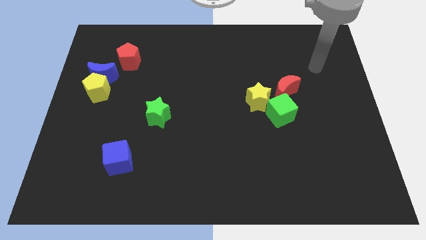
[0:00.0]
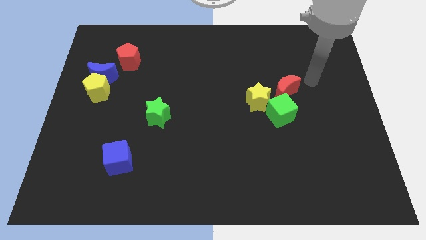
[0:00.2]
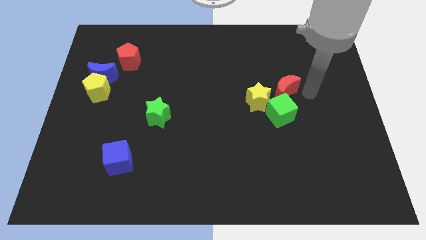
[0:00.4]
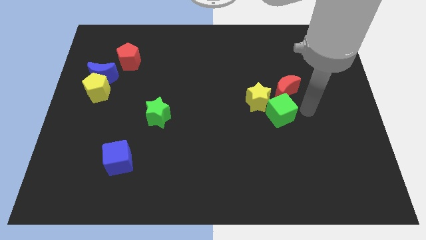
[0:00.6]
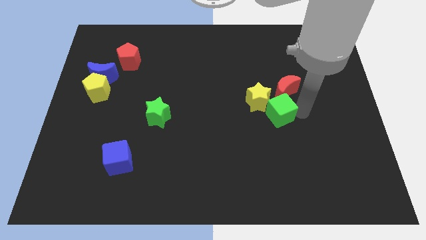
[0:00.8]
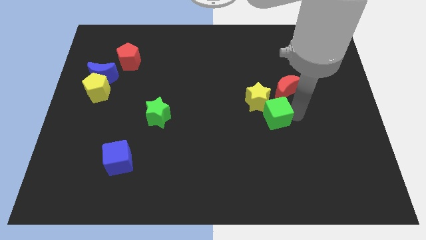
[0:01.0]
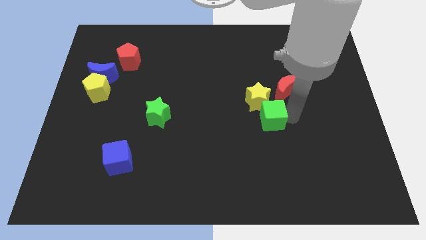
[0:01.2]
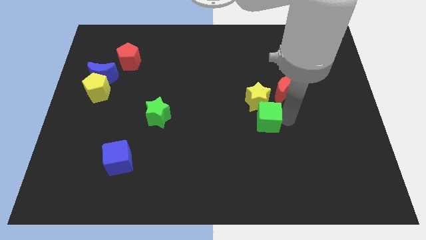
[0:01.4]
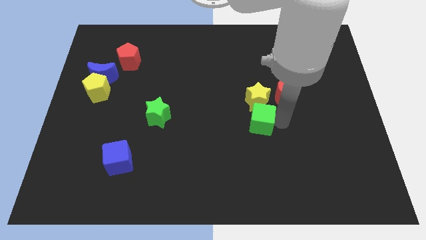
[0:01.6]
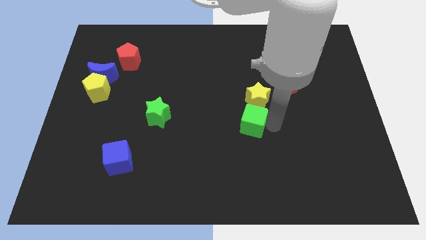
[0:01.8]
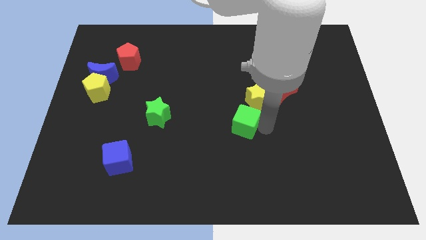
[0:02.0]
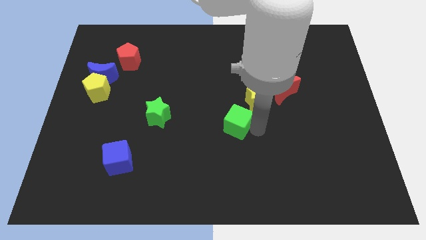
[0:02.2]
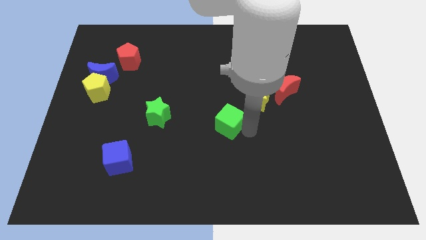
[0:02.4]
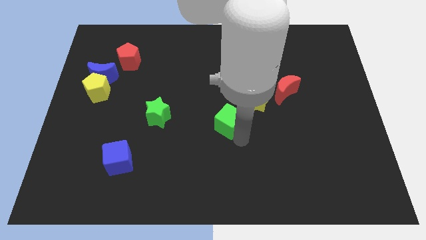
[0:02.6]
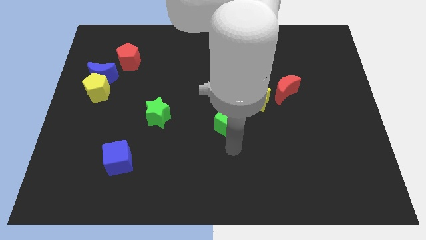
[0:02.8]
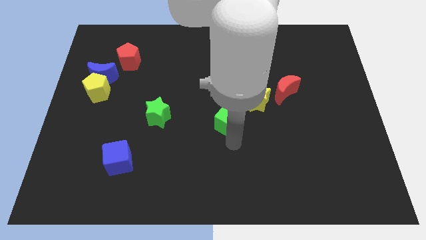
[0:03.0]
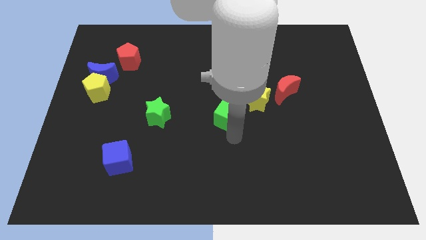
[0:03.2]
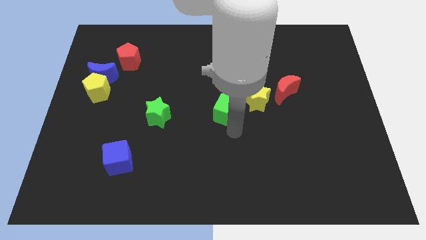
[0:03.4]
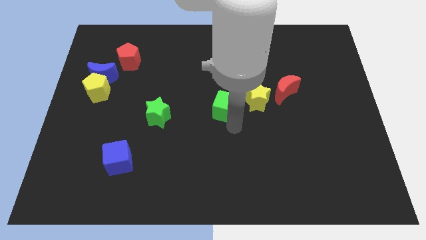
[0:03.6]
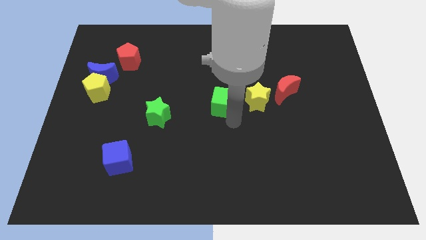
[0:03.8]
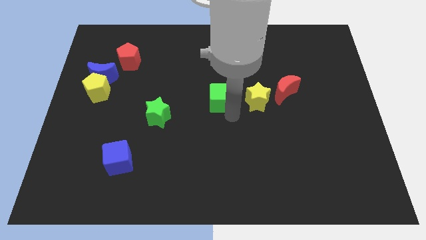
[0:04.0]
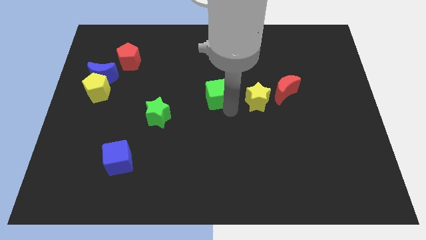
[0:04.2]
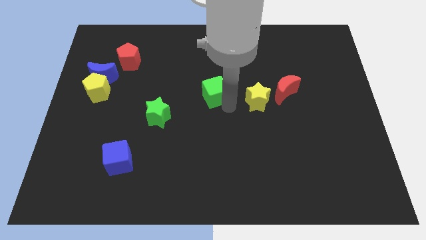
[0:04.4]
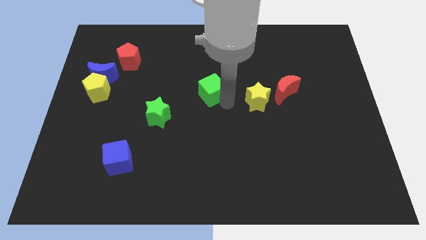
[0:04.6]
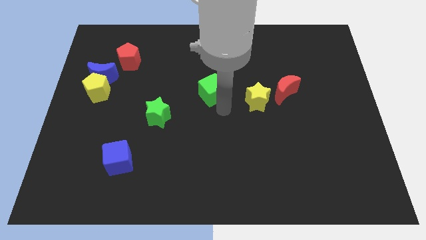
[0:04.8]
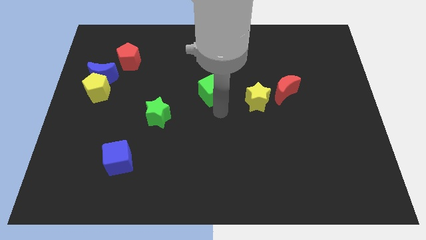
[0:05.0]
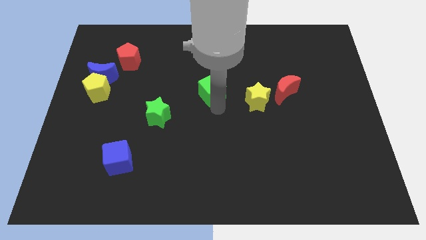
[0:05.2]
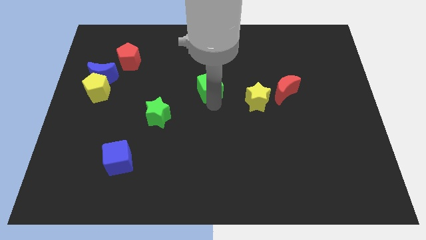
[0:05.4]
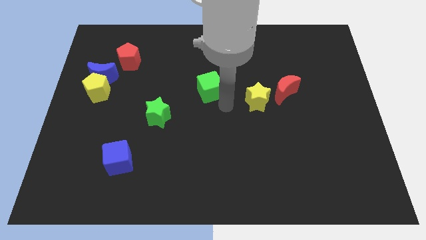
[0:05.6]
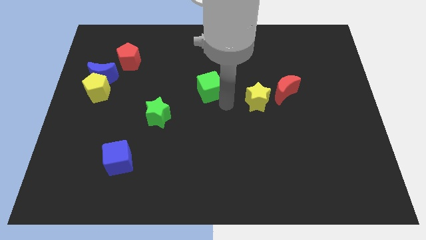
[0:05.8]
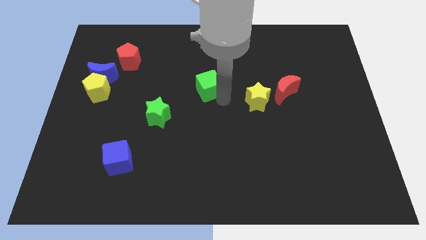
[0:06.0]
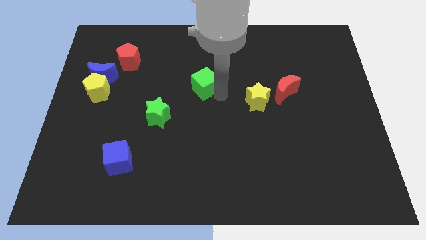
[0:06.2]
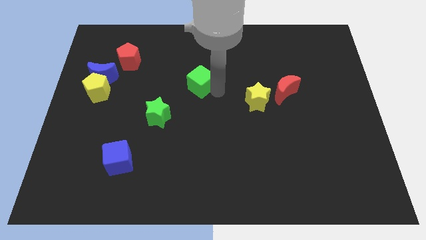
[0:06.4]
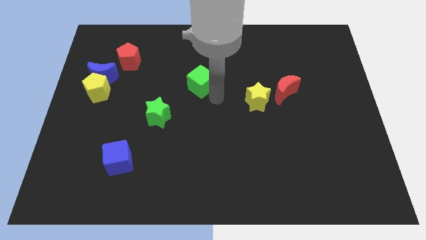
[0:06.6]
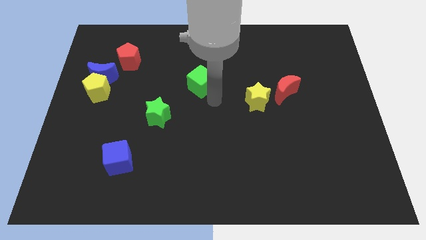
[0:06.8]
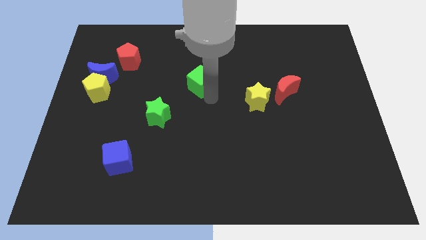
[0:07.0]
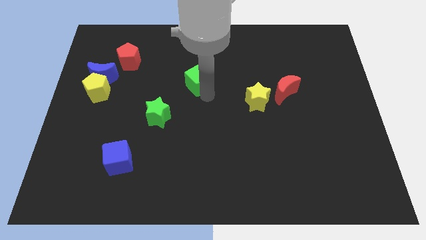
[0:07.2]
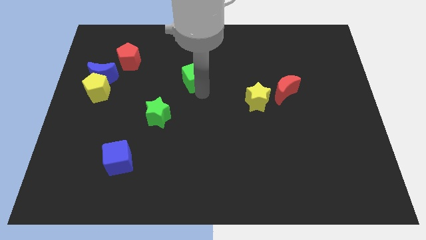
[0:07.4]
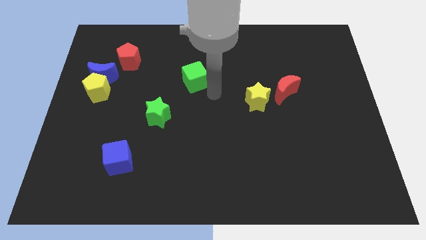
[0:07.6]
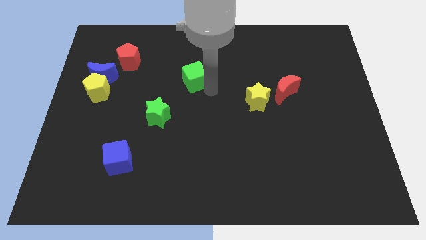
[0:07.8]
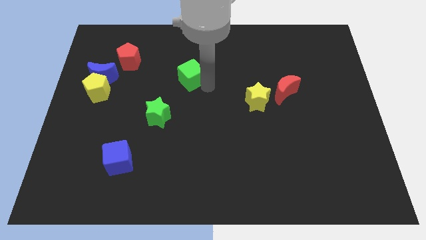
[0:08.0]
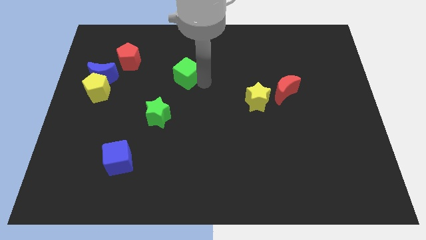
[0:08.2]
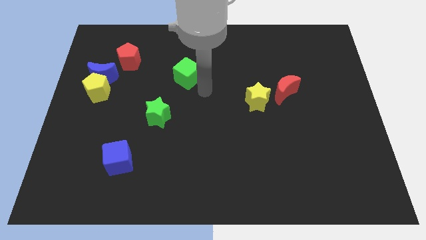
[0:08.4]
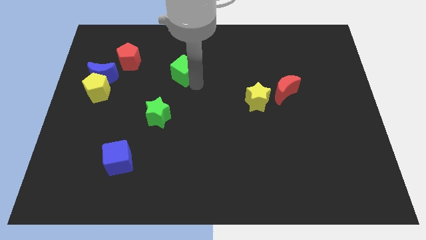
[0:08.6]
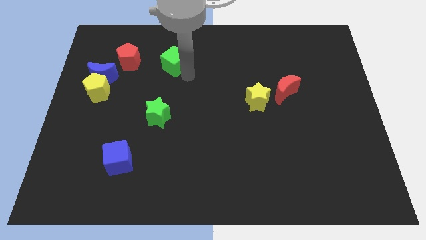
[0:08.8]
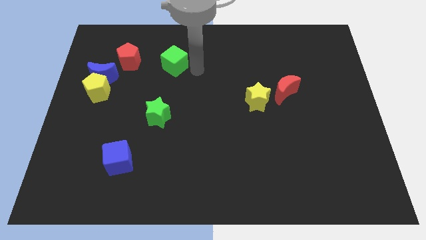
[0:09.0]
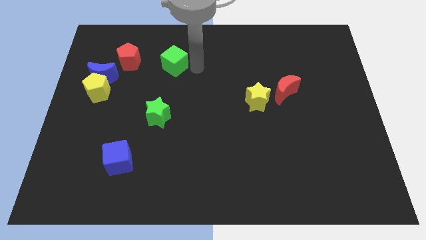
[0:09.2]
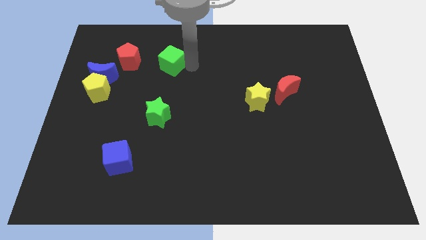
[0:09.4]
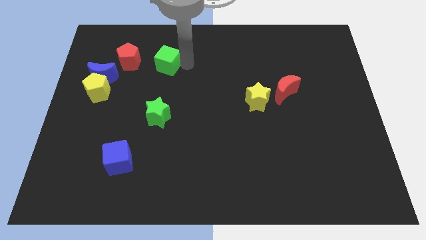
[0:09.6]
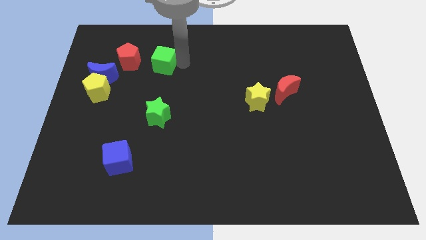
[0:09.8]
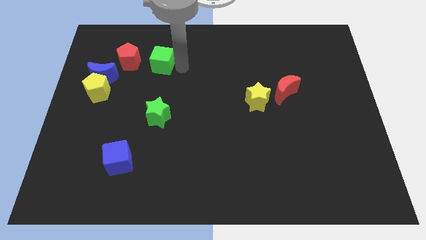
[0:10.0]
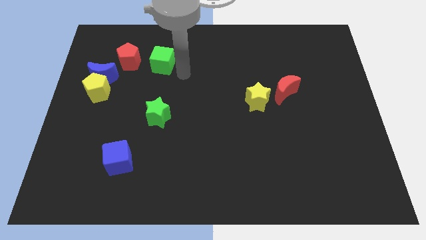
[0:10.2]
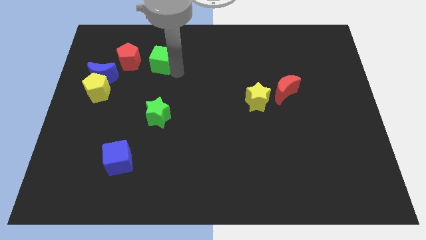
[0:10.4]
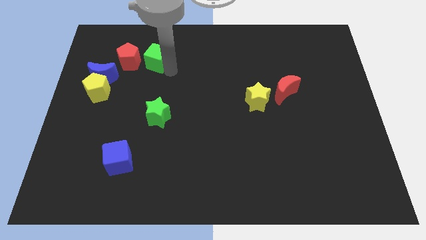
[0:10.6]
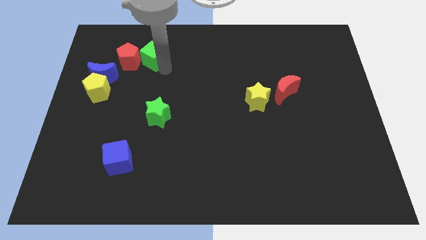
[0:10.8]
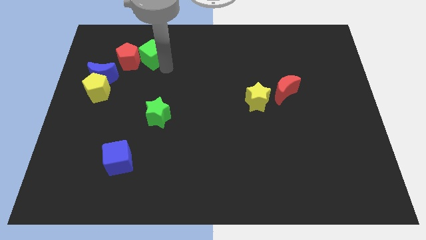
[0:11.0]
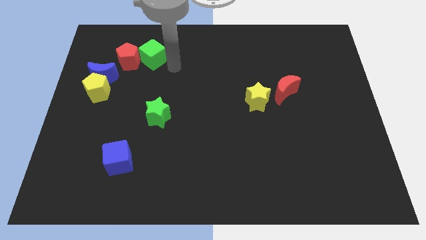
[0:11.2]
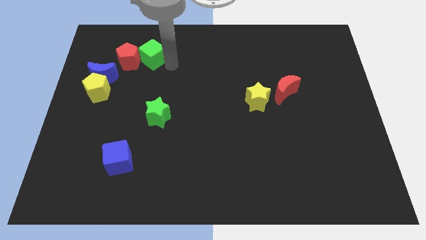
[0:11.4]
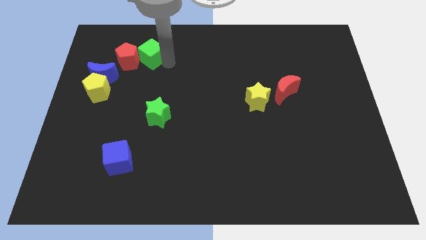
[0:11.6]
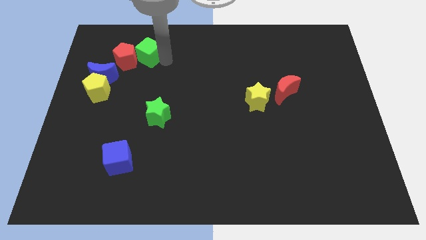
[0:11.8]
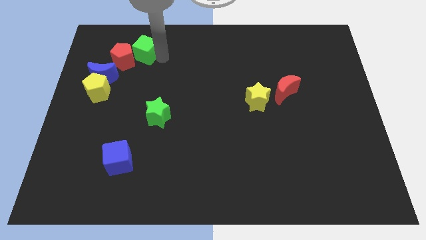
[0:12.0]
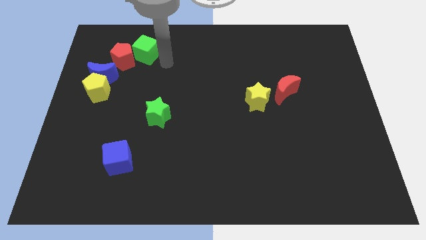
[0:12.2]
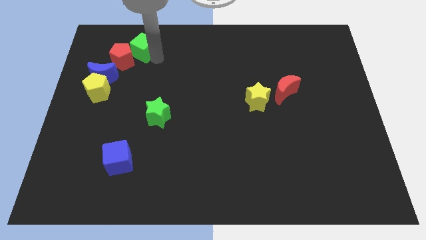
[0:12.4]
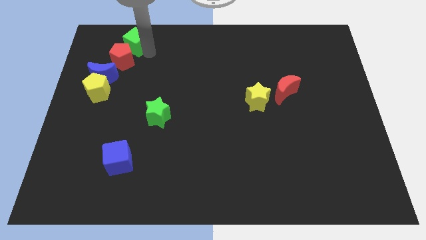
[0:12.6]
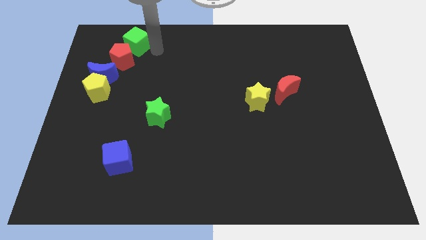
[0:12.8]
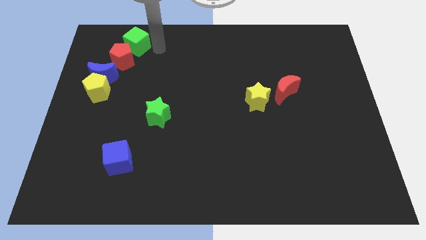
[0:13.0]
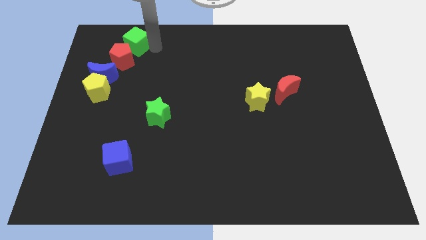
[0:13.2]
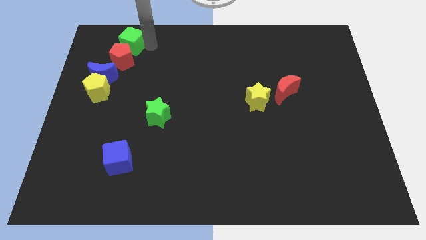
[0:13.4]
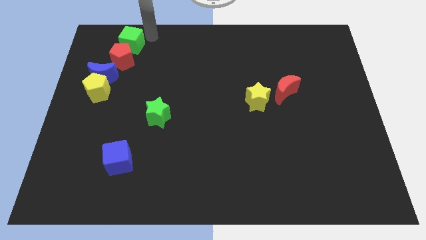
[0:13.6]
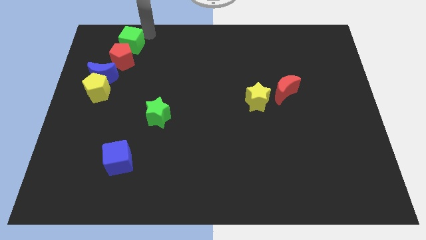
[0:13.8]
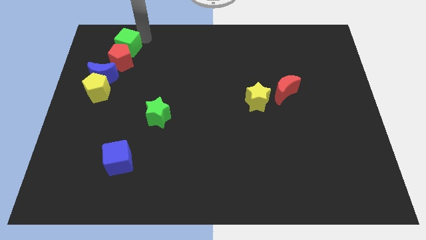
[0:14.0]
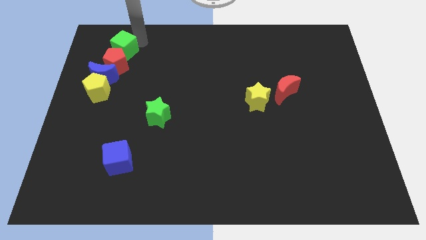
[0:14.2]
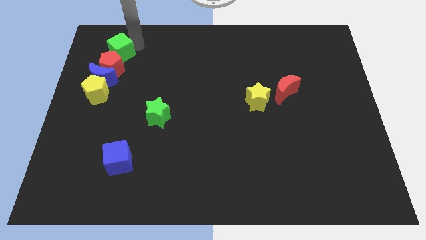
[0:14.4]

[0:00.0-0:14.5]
push the green cube above the yellow pentagon
